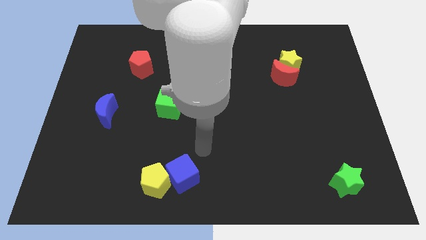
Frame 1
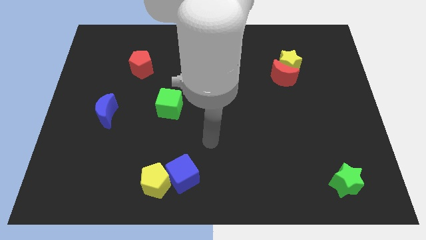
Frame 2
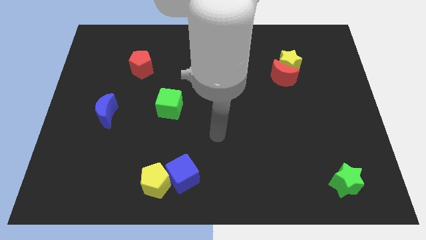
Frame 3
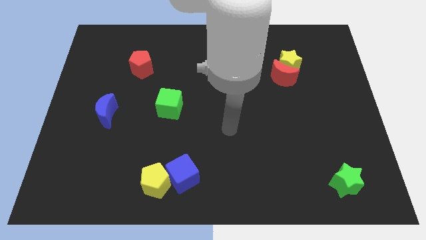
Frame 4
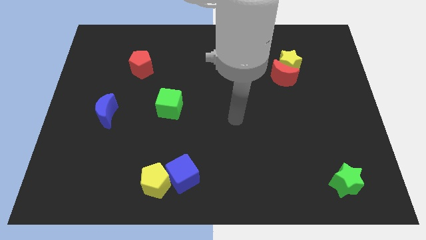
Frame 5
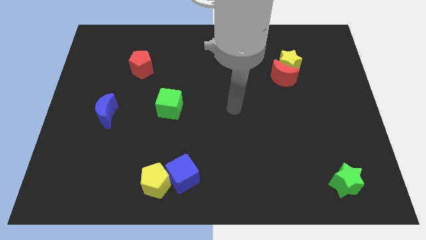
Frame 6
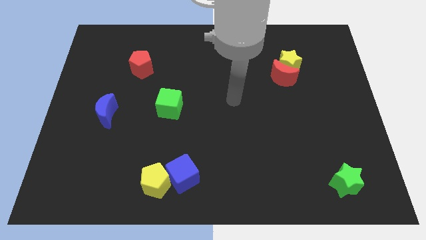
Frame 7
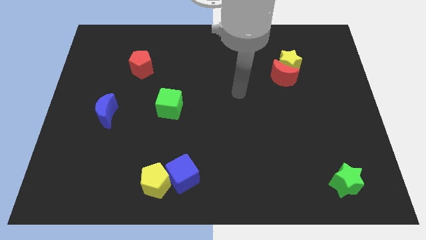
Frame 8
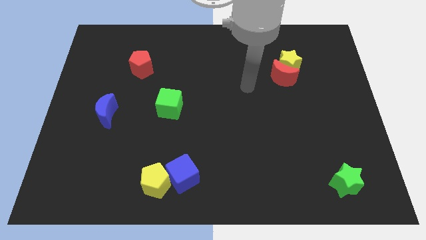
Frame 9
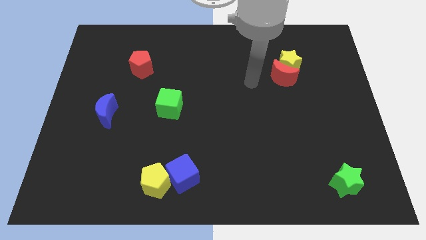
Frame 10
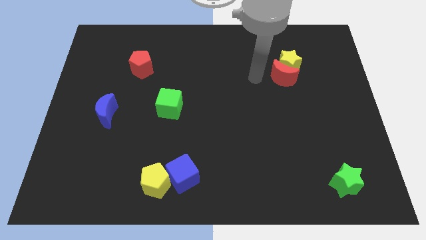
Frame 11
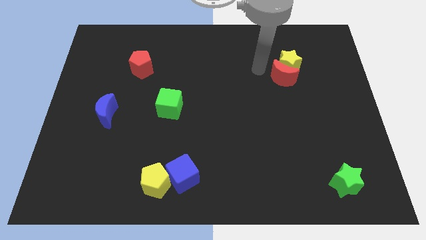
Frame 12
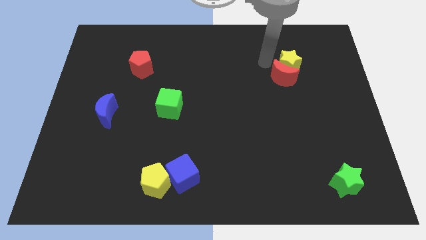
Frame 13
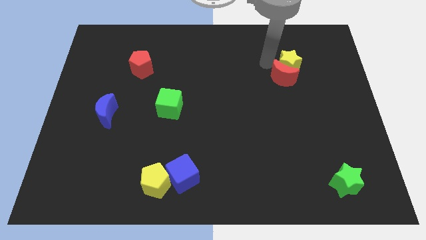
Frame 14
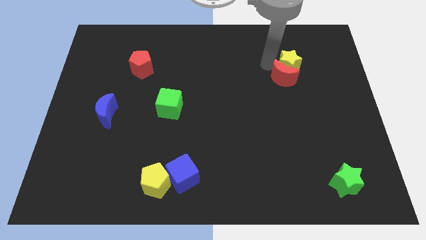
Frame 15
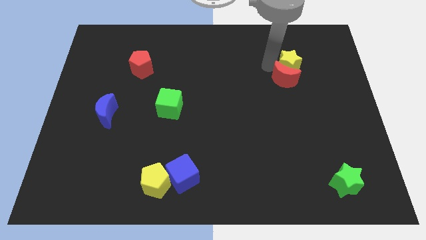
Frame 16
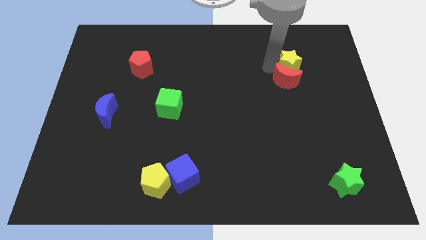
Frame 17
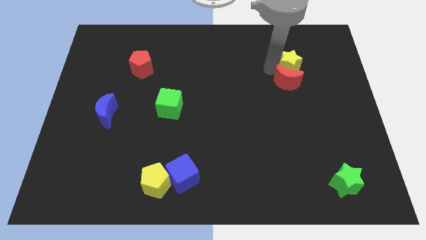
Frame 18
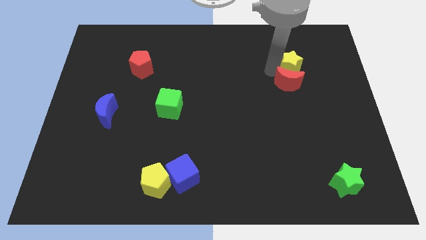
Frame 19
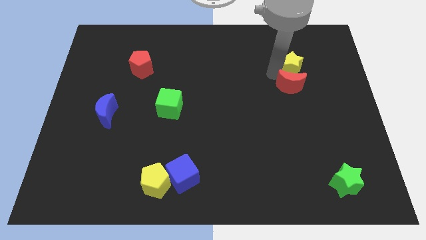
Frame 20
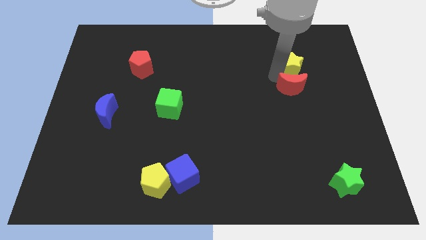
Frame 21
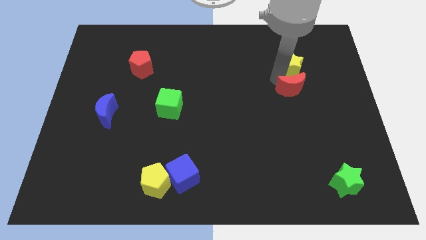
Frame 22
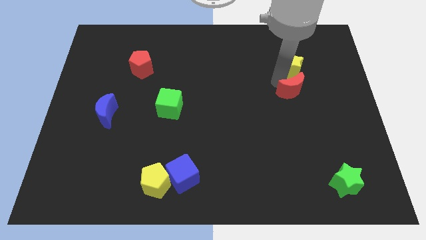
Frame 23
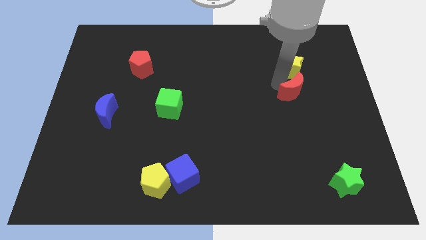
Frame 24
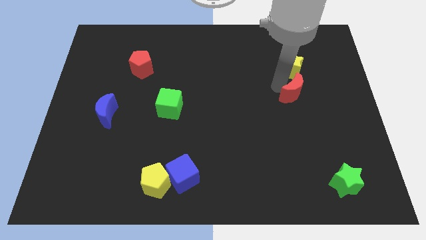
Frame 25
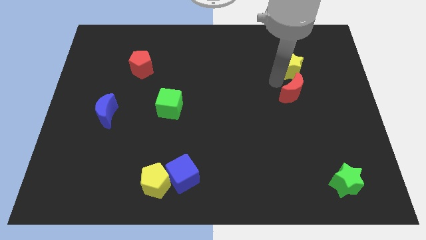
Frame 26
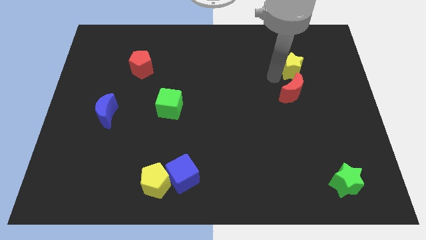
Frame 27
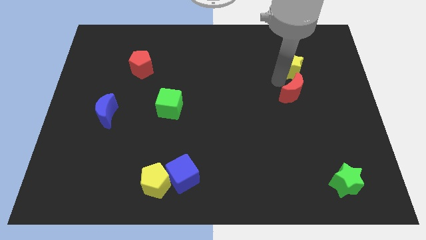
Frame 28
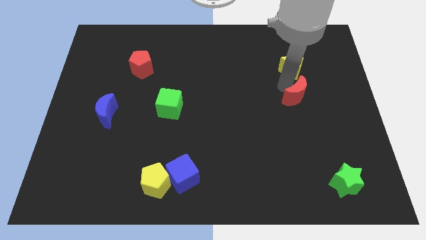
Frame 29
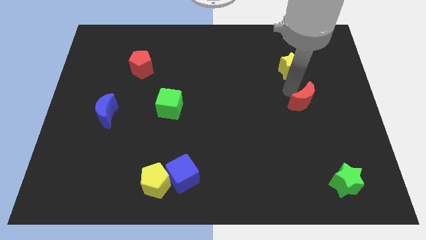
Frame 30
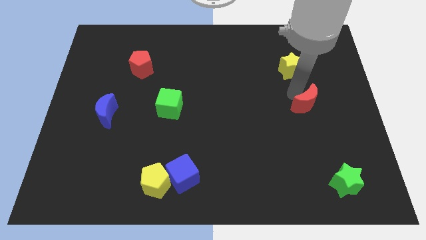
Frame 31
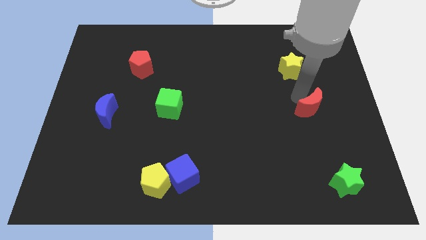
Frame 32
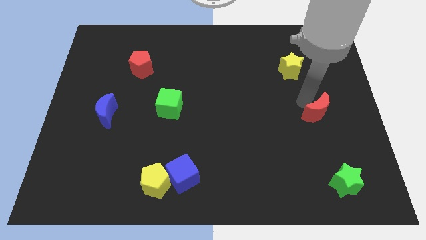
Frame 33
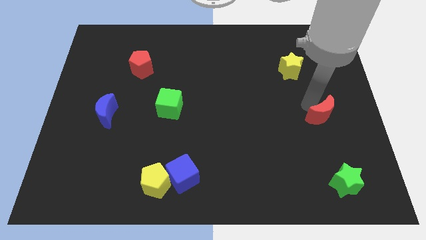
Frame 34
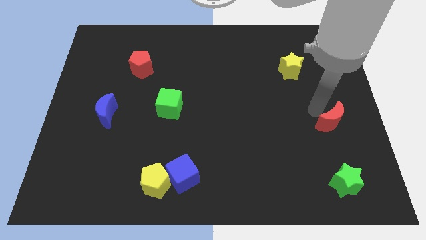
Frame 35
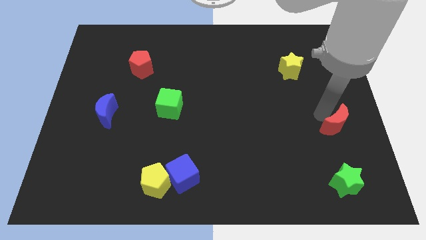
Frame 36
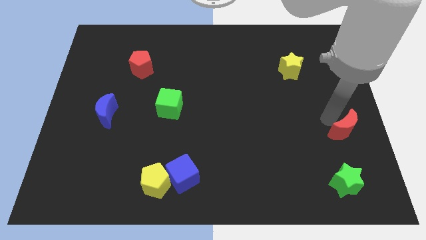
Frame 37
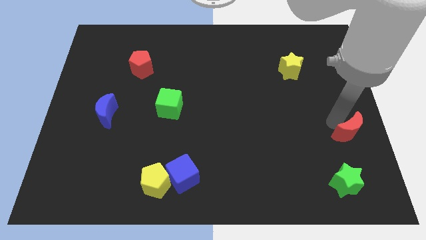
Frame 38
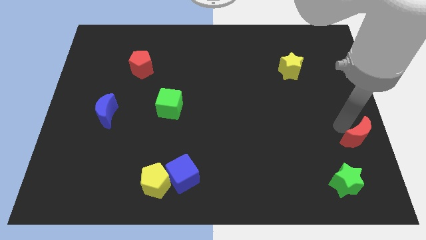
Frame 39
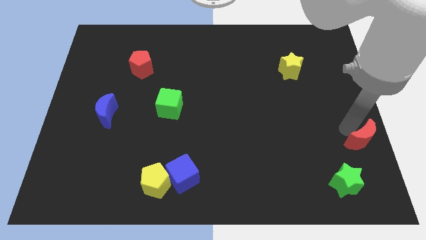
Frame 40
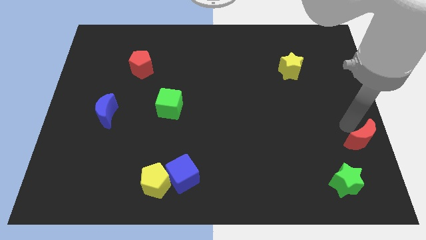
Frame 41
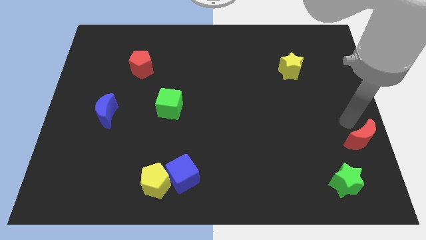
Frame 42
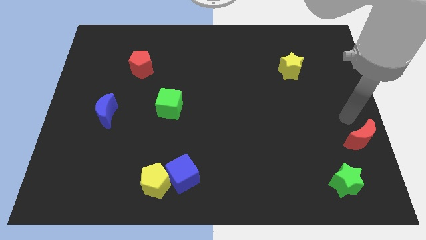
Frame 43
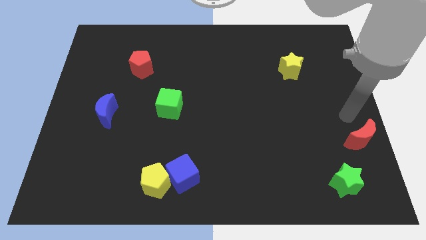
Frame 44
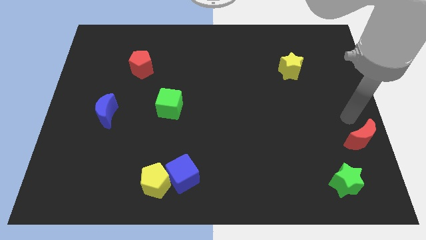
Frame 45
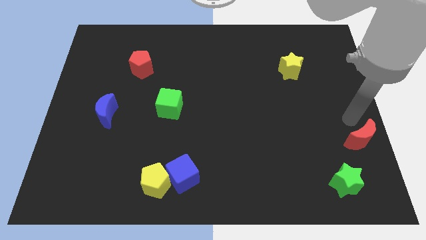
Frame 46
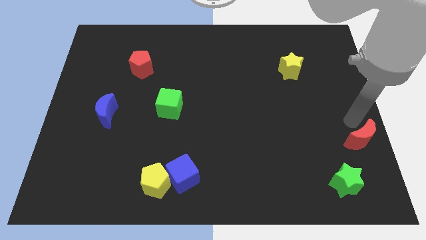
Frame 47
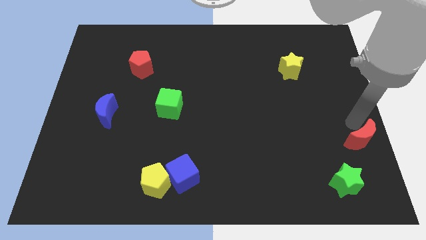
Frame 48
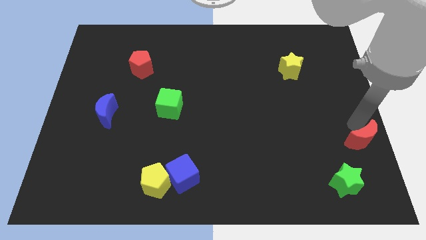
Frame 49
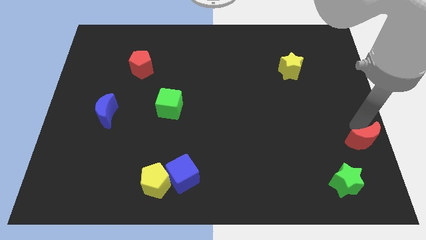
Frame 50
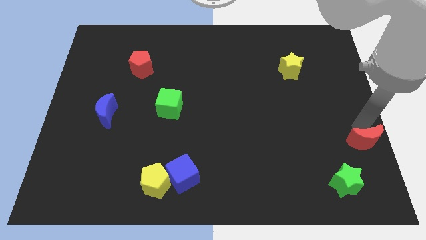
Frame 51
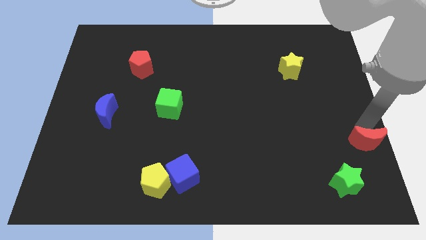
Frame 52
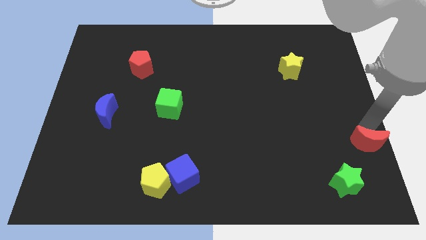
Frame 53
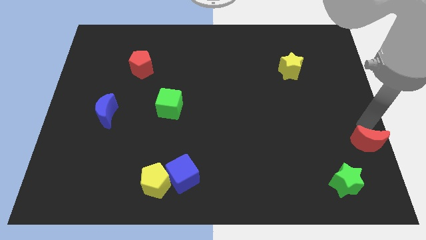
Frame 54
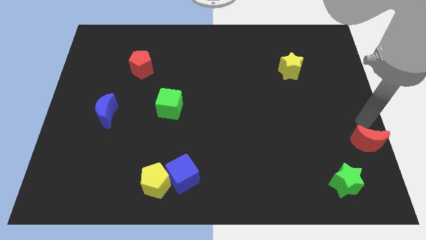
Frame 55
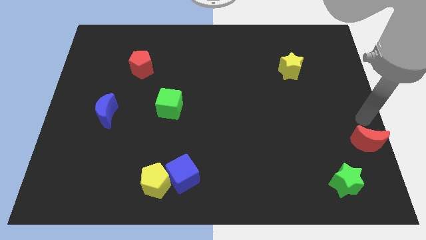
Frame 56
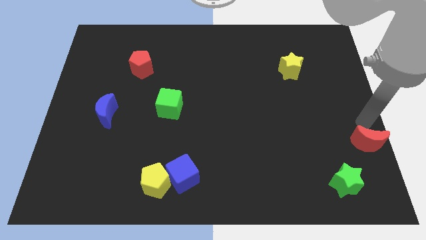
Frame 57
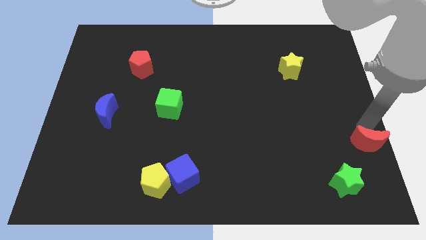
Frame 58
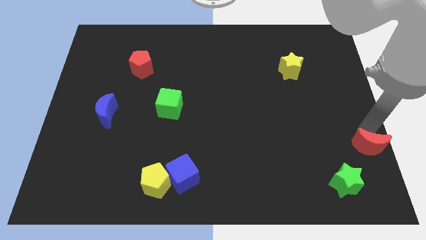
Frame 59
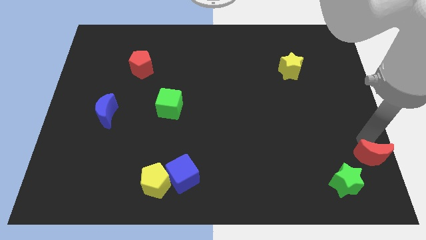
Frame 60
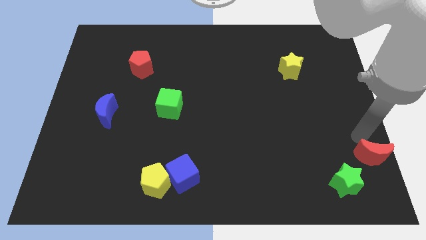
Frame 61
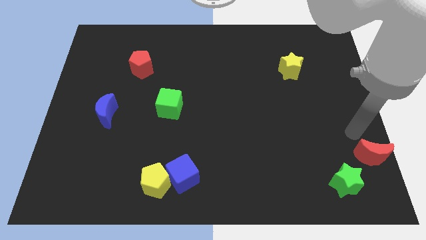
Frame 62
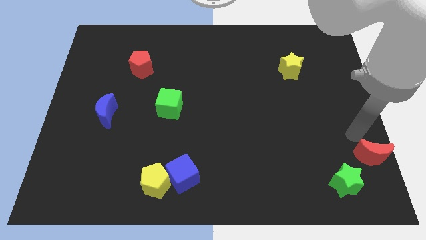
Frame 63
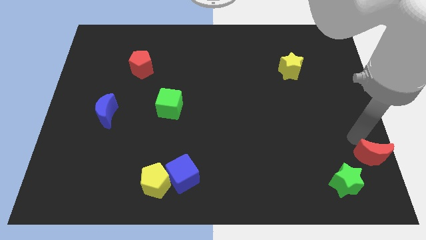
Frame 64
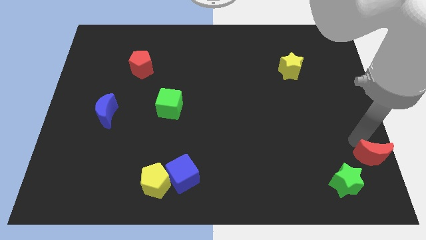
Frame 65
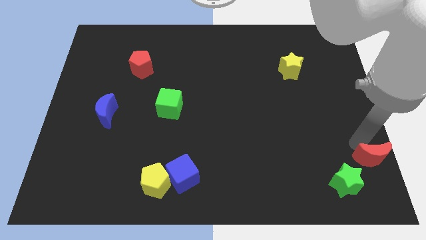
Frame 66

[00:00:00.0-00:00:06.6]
push the red moon to the lower right corner

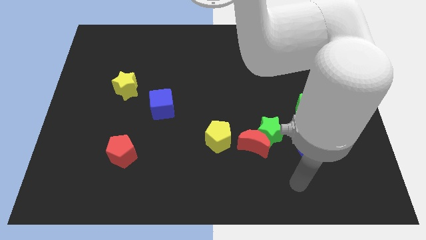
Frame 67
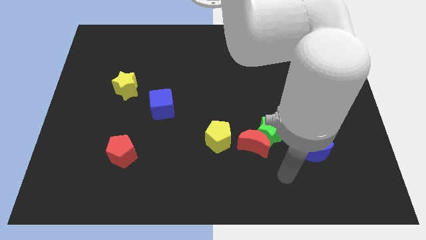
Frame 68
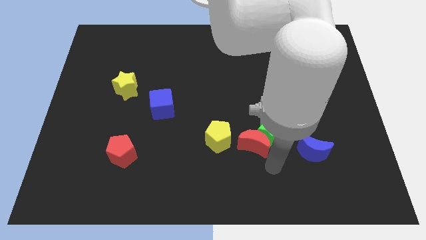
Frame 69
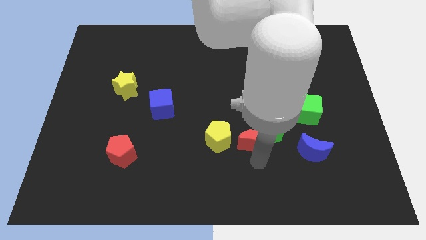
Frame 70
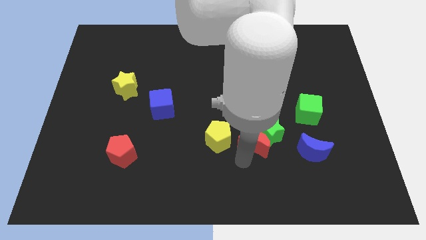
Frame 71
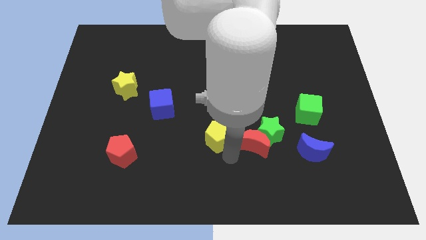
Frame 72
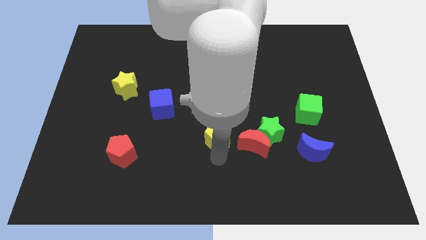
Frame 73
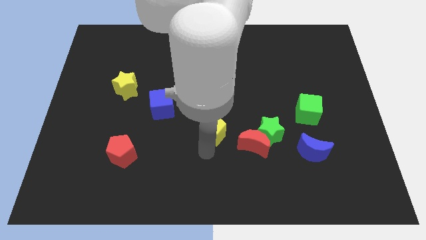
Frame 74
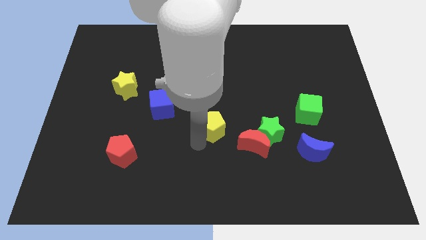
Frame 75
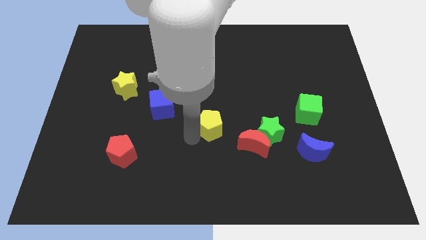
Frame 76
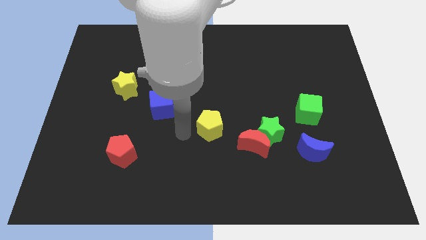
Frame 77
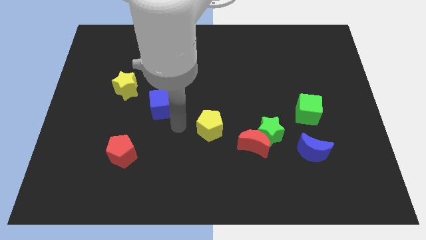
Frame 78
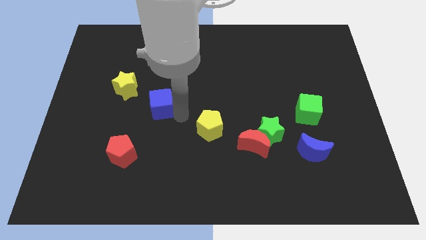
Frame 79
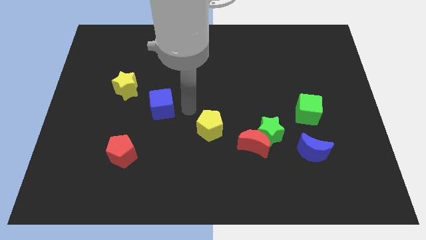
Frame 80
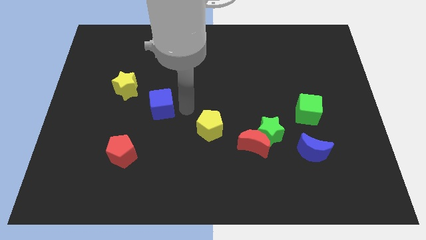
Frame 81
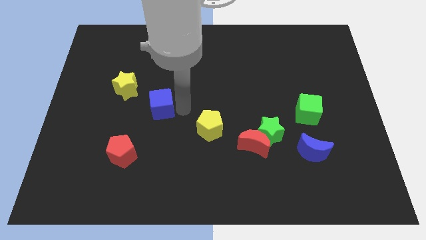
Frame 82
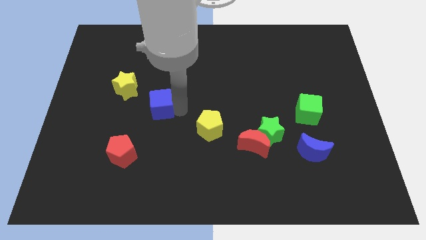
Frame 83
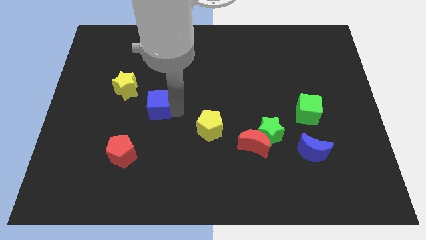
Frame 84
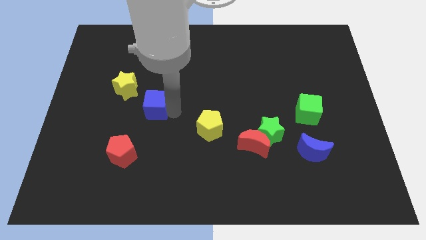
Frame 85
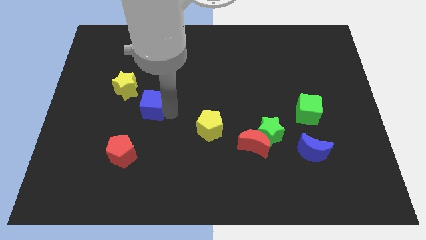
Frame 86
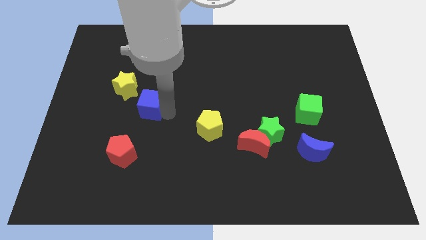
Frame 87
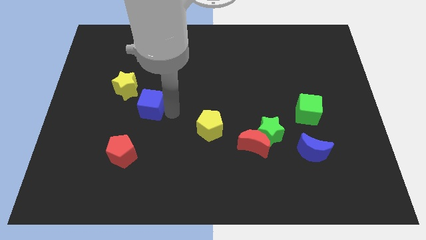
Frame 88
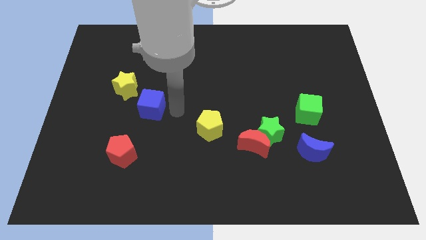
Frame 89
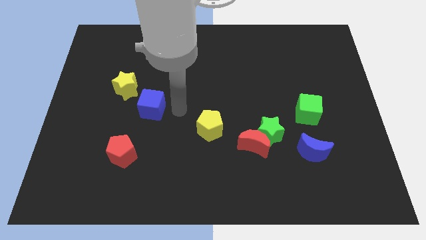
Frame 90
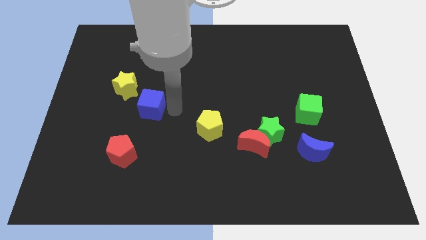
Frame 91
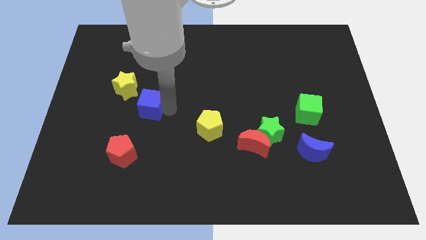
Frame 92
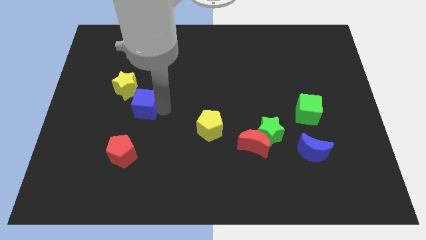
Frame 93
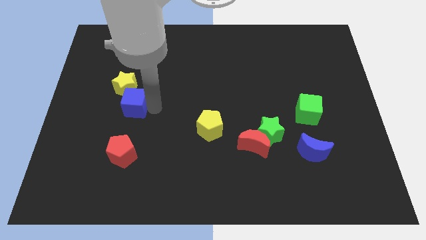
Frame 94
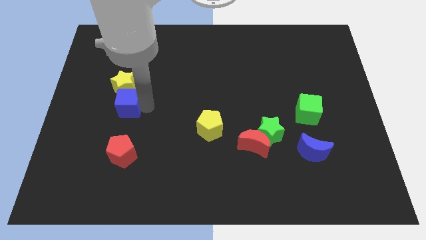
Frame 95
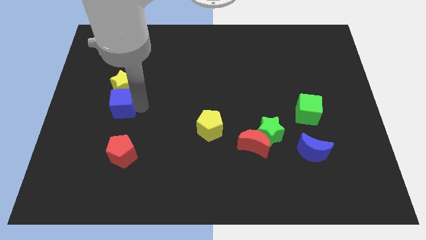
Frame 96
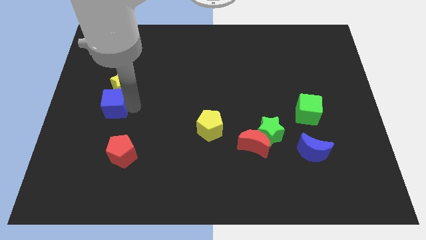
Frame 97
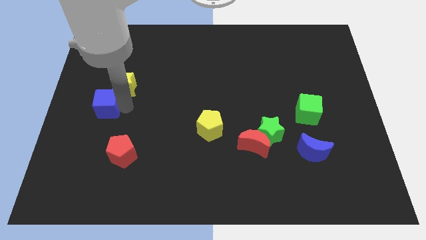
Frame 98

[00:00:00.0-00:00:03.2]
move the blue cube to the left side of the board
